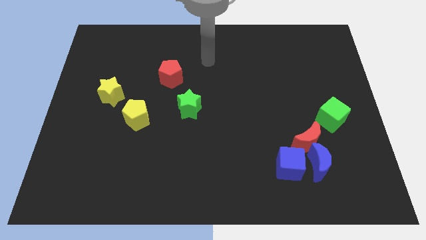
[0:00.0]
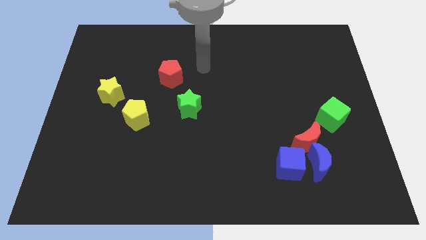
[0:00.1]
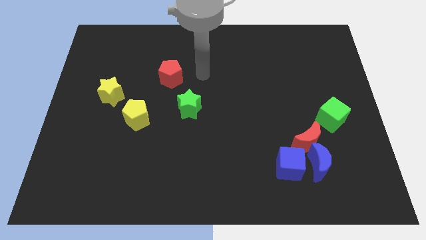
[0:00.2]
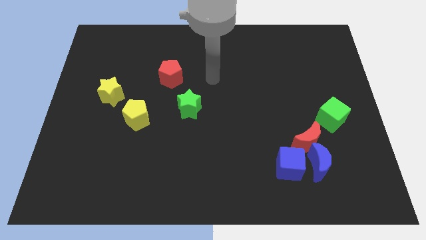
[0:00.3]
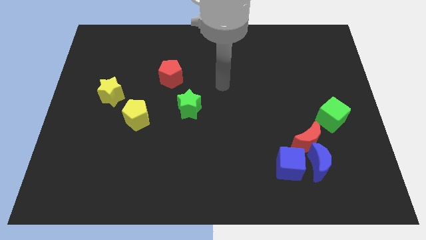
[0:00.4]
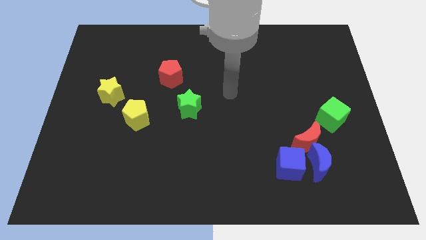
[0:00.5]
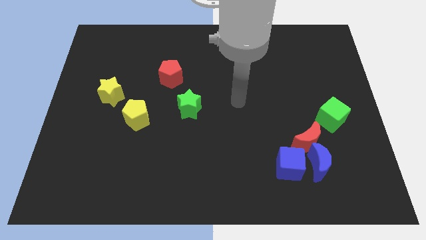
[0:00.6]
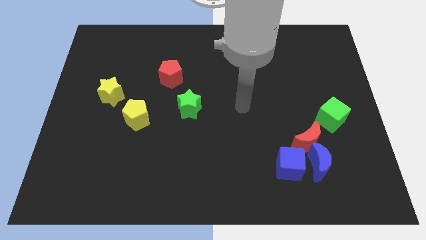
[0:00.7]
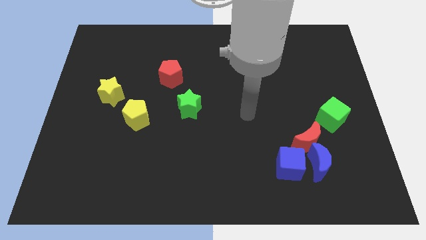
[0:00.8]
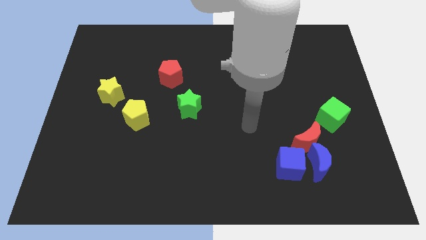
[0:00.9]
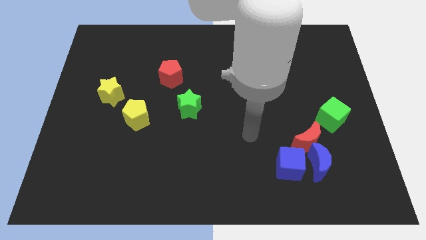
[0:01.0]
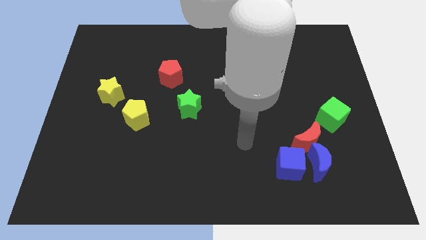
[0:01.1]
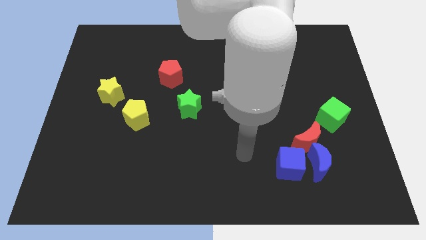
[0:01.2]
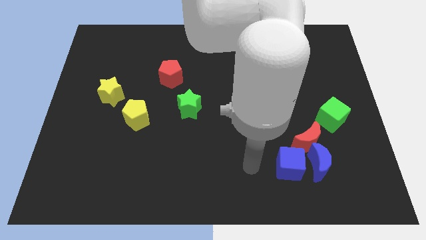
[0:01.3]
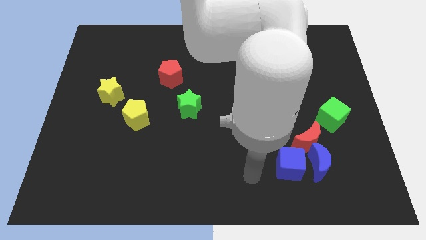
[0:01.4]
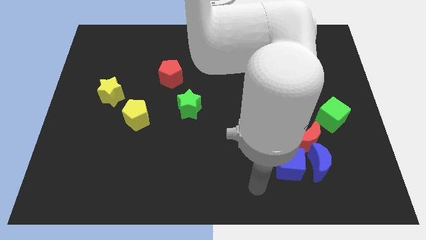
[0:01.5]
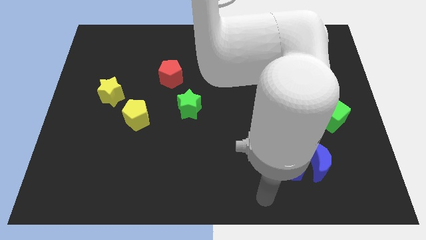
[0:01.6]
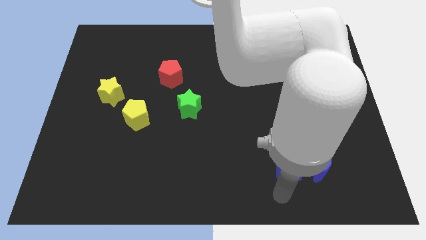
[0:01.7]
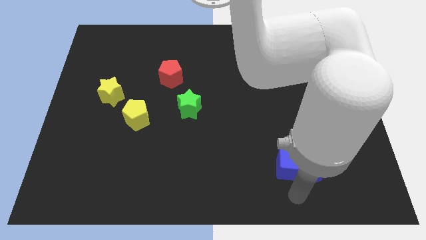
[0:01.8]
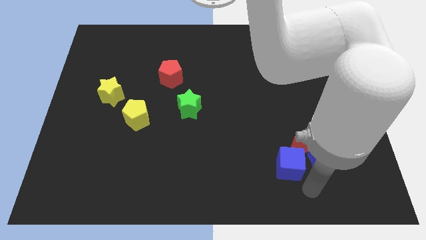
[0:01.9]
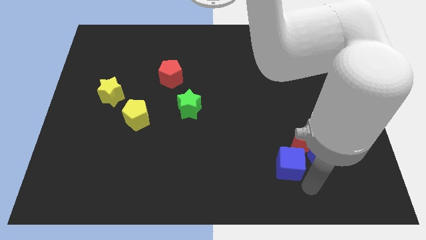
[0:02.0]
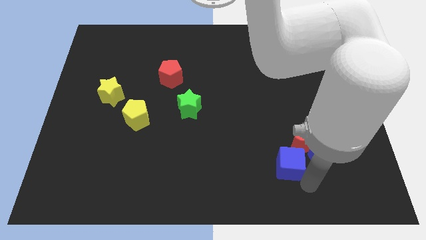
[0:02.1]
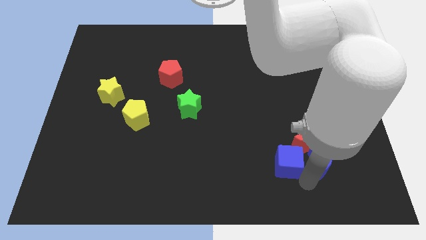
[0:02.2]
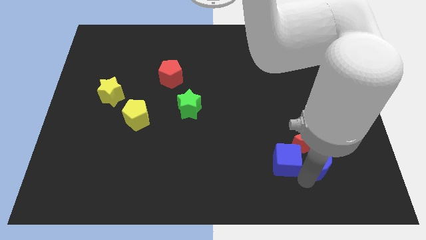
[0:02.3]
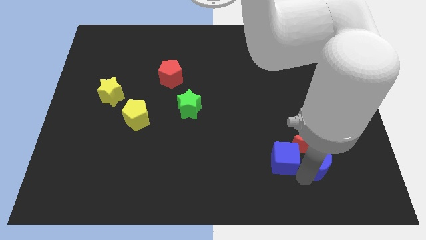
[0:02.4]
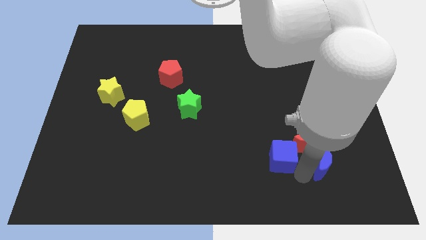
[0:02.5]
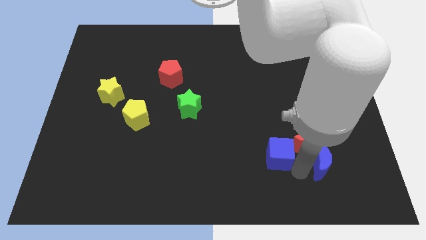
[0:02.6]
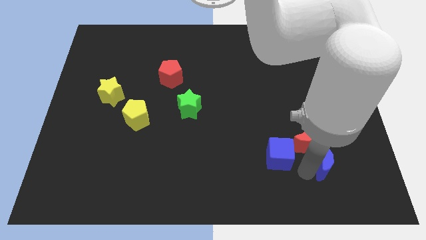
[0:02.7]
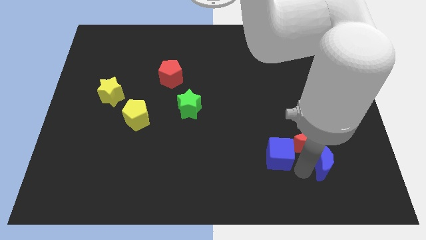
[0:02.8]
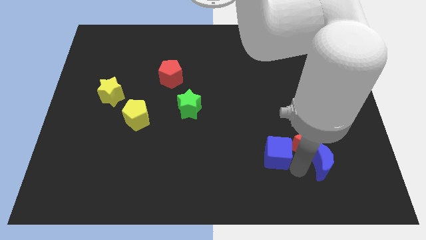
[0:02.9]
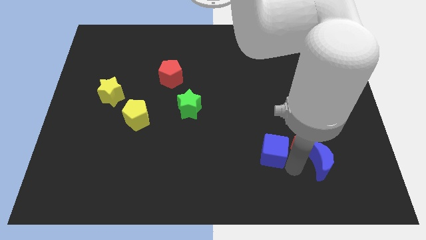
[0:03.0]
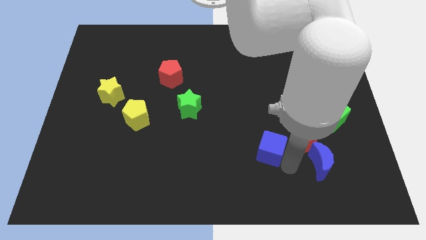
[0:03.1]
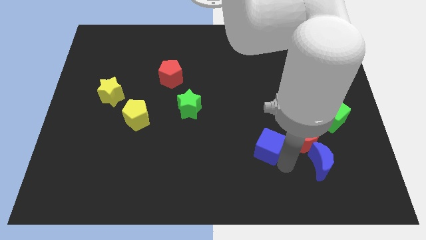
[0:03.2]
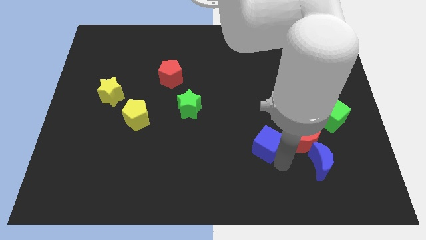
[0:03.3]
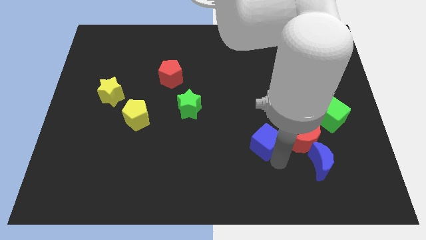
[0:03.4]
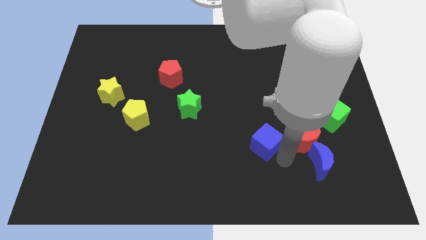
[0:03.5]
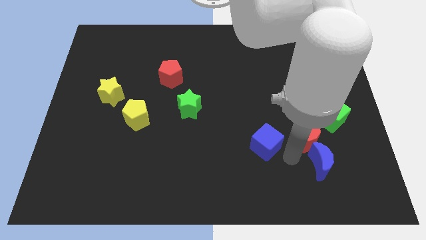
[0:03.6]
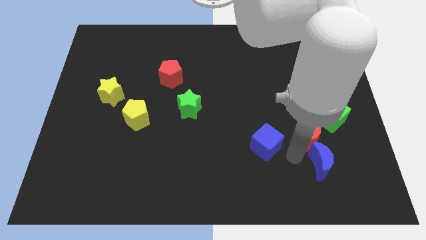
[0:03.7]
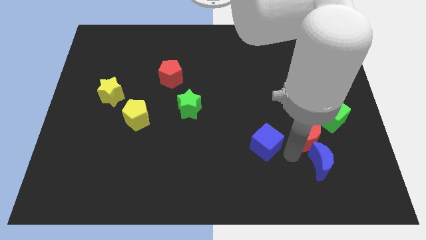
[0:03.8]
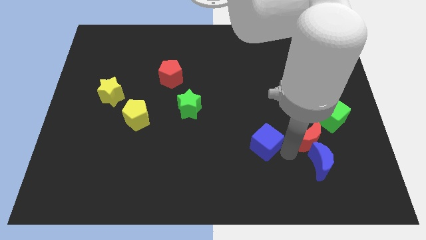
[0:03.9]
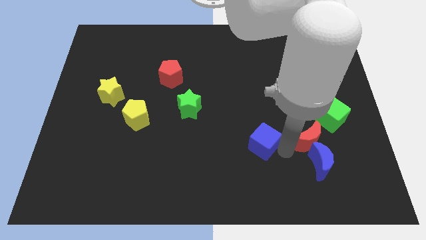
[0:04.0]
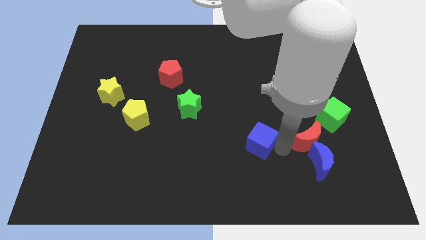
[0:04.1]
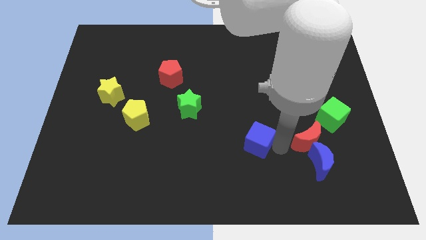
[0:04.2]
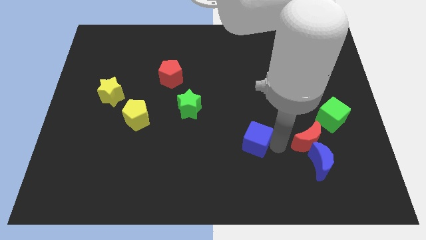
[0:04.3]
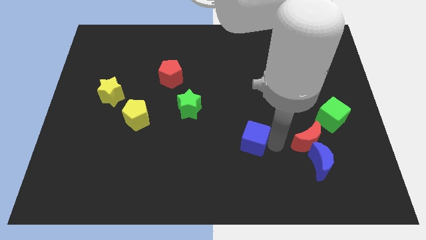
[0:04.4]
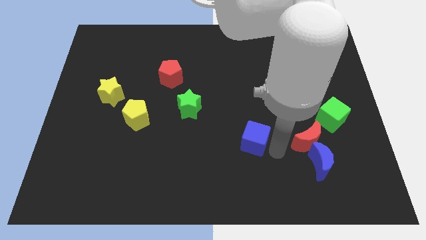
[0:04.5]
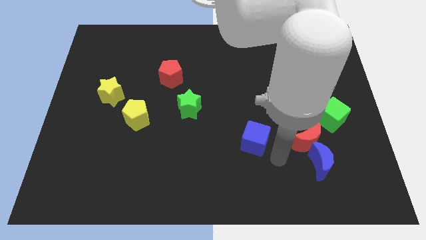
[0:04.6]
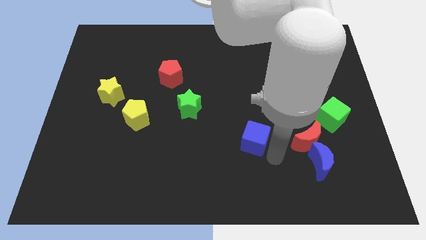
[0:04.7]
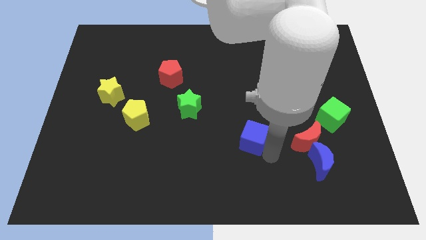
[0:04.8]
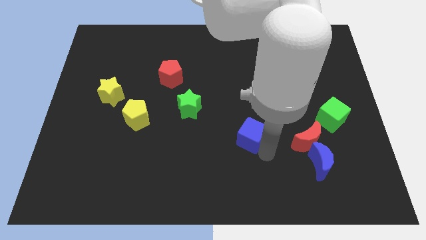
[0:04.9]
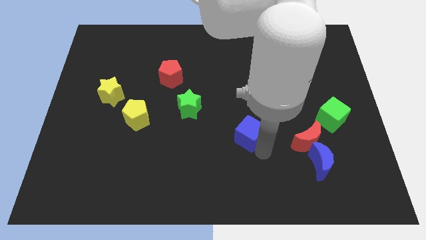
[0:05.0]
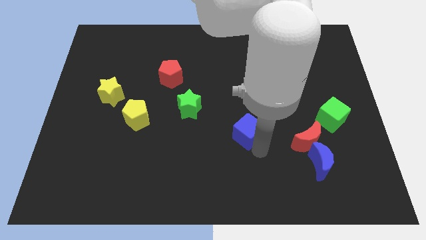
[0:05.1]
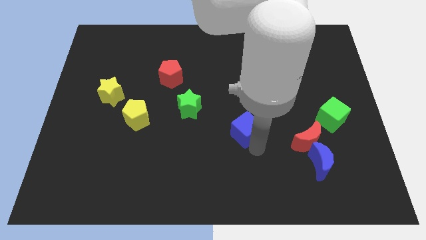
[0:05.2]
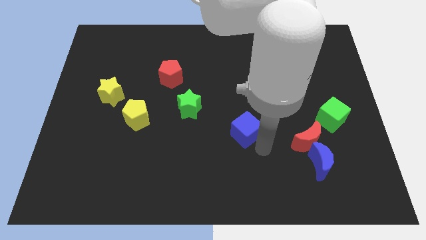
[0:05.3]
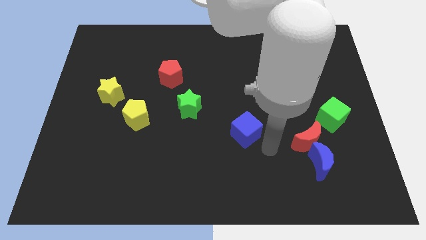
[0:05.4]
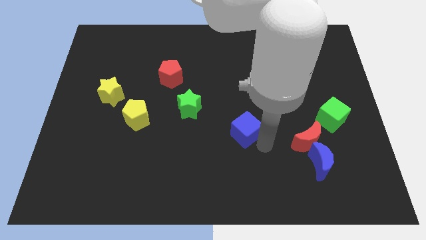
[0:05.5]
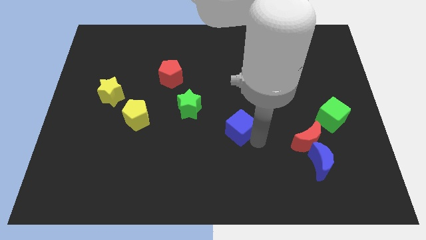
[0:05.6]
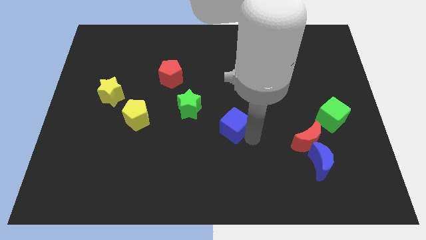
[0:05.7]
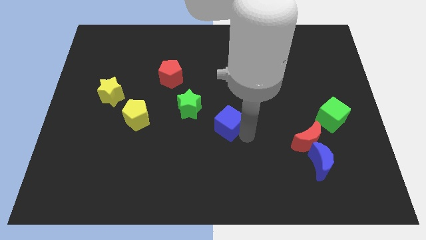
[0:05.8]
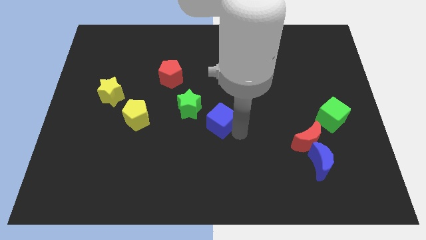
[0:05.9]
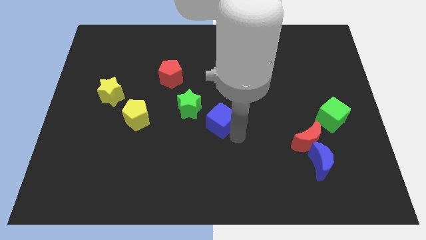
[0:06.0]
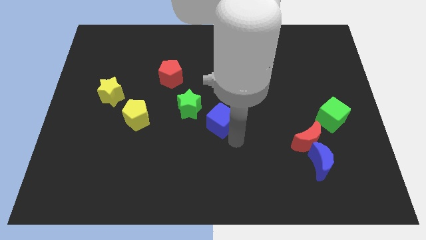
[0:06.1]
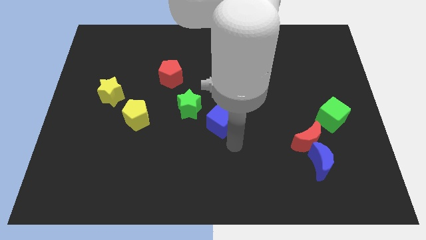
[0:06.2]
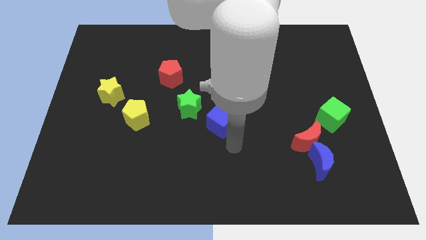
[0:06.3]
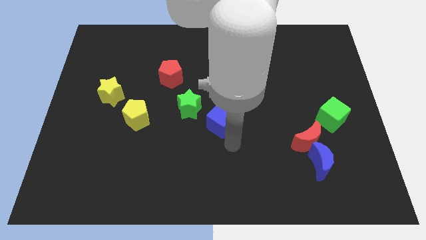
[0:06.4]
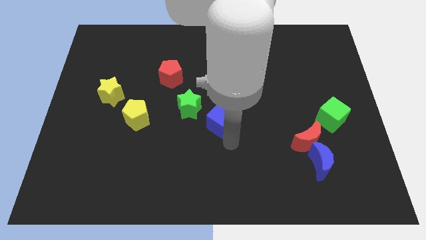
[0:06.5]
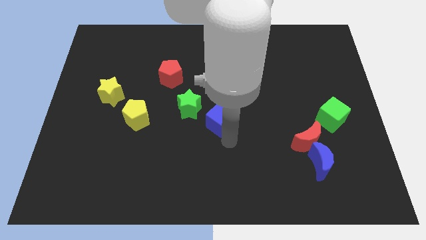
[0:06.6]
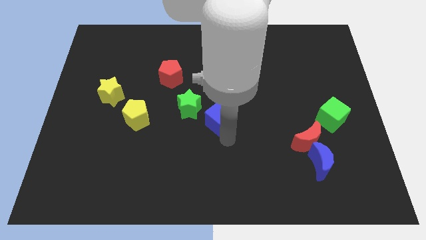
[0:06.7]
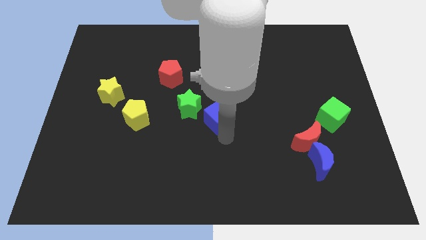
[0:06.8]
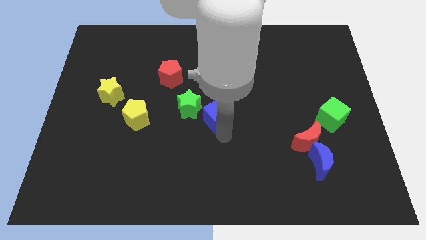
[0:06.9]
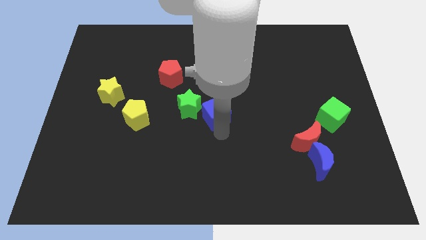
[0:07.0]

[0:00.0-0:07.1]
push the blue cube upwards and left

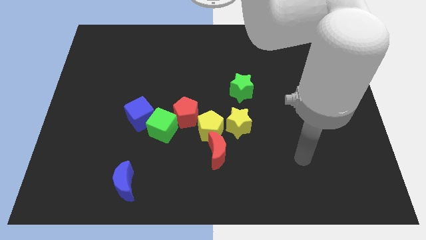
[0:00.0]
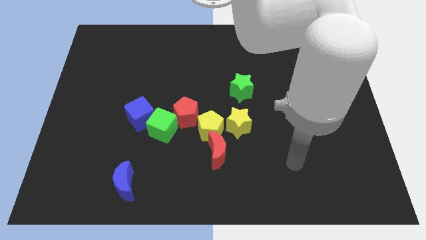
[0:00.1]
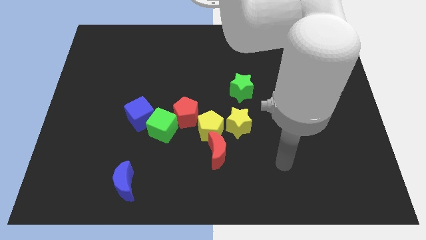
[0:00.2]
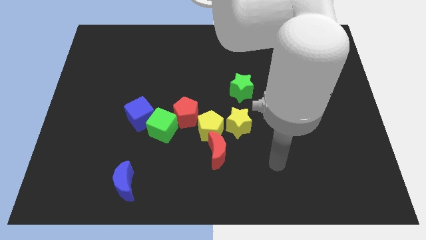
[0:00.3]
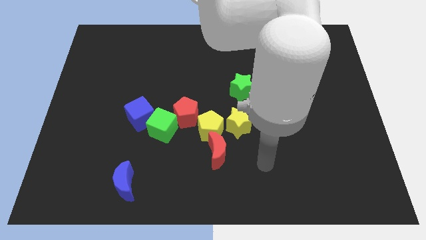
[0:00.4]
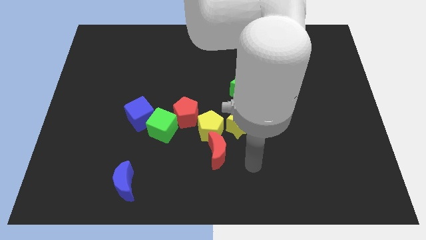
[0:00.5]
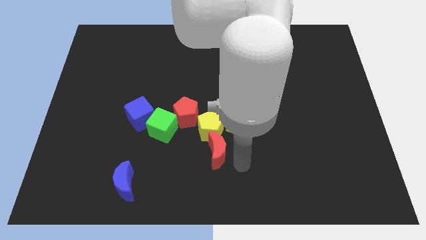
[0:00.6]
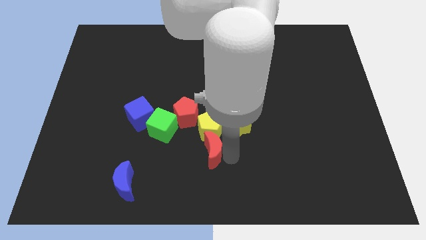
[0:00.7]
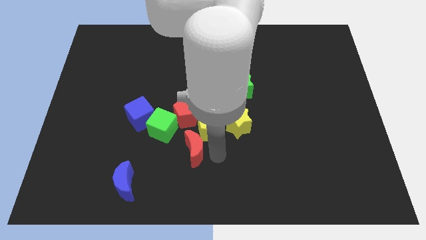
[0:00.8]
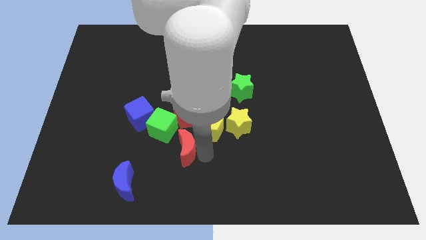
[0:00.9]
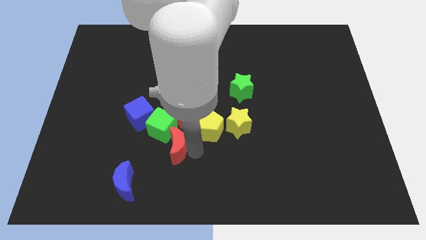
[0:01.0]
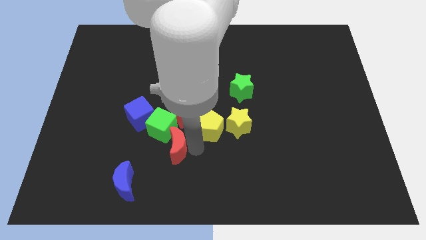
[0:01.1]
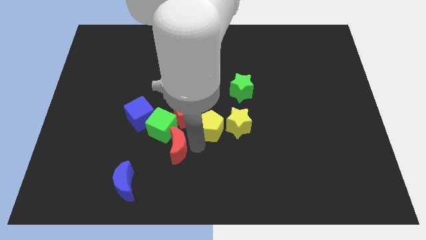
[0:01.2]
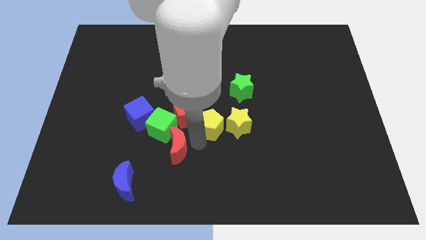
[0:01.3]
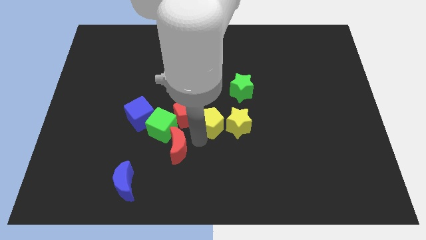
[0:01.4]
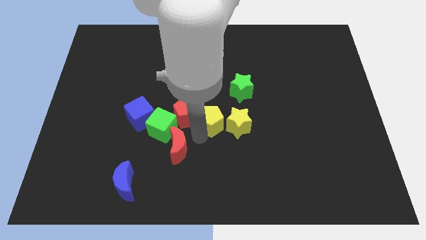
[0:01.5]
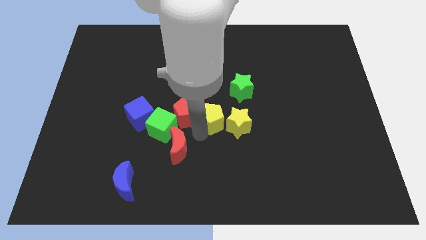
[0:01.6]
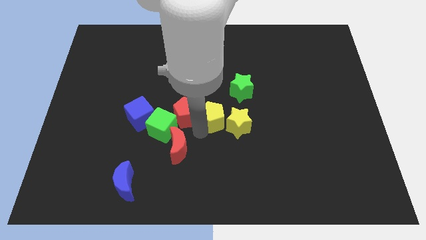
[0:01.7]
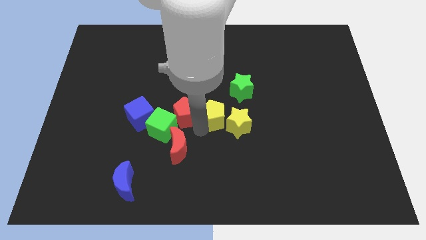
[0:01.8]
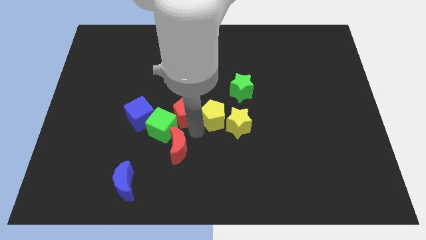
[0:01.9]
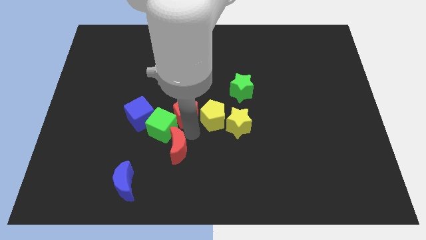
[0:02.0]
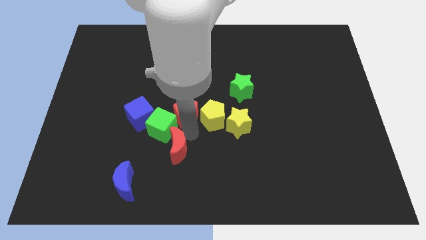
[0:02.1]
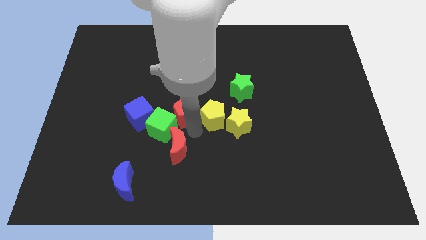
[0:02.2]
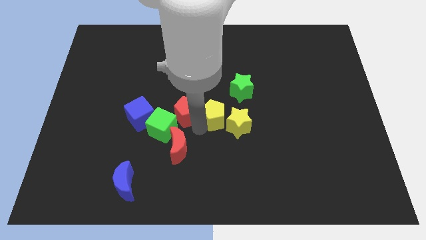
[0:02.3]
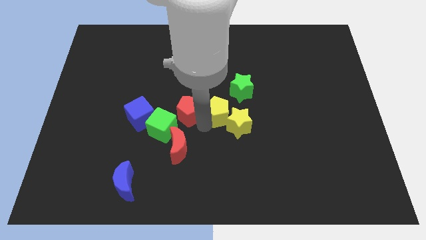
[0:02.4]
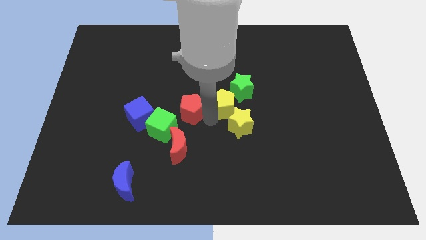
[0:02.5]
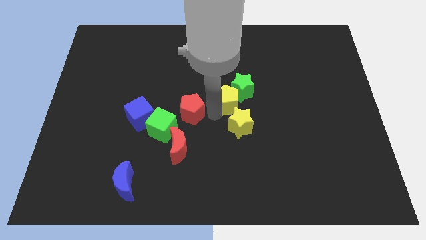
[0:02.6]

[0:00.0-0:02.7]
slightly push the yellow pentagon up and then right
